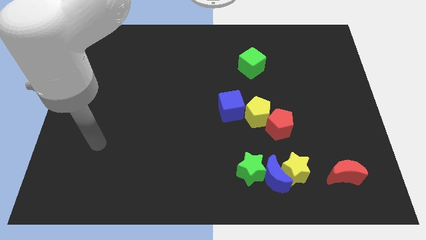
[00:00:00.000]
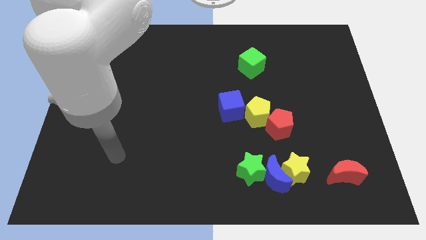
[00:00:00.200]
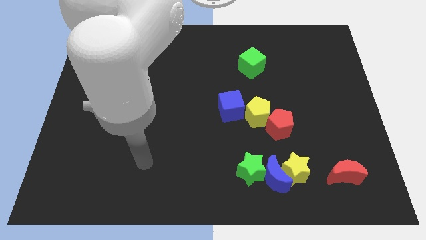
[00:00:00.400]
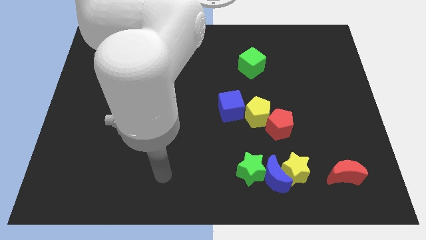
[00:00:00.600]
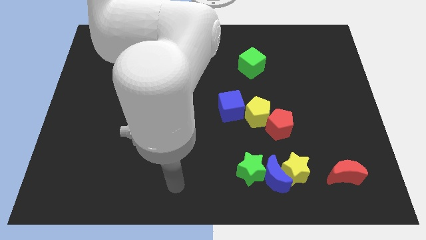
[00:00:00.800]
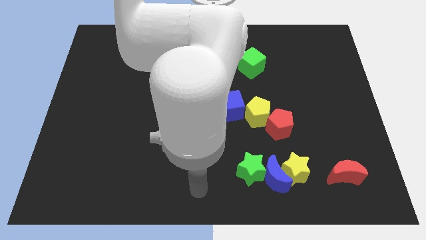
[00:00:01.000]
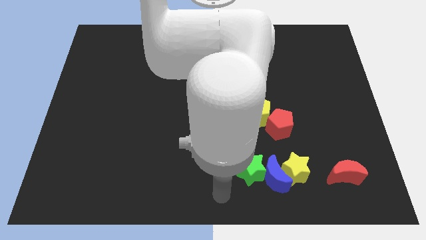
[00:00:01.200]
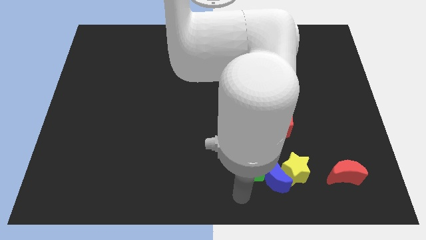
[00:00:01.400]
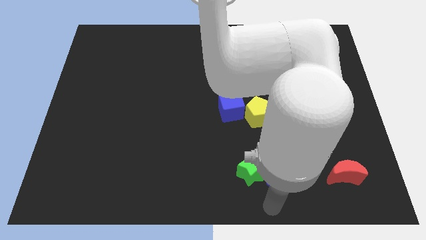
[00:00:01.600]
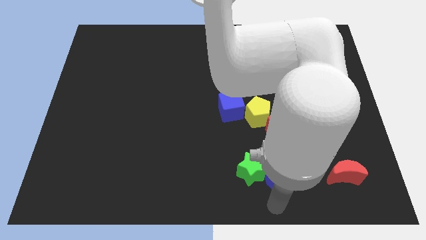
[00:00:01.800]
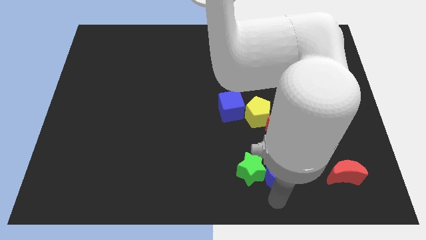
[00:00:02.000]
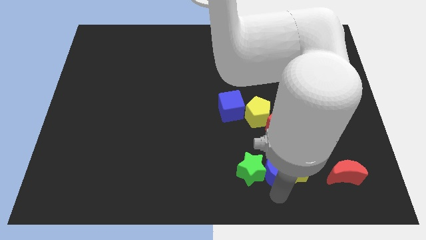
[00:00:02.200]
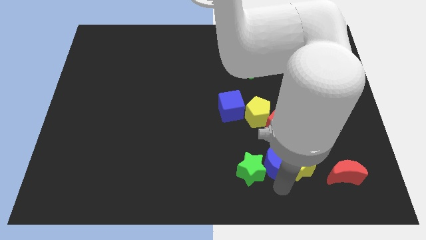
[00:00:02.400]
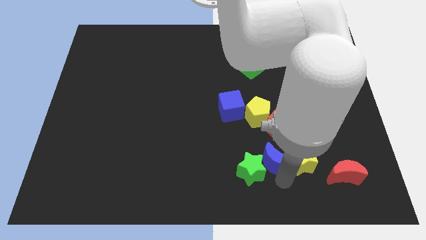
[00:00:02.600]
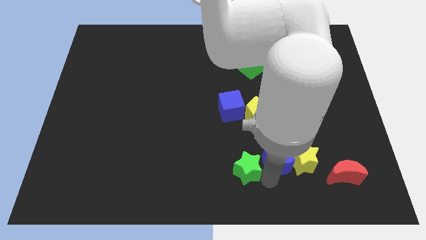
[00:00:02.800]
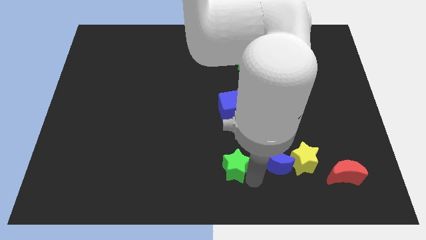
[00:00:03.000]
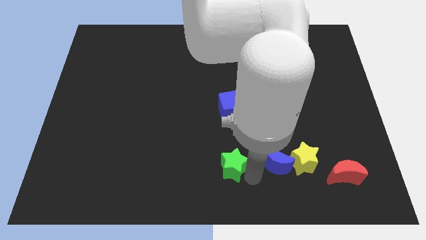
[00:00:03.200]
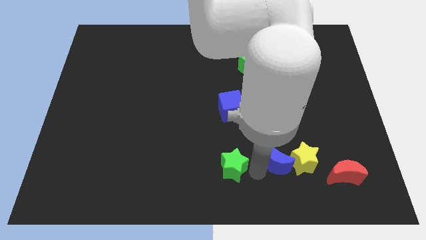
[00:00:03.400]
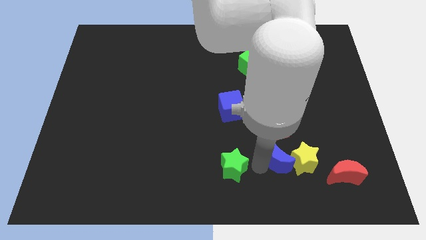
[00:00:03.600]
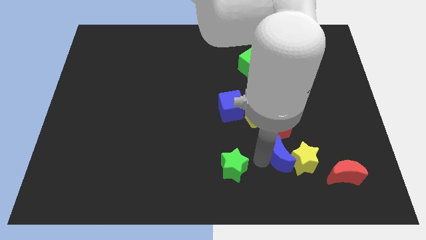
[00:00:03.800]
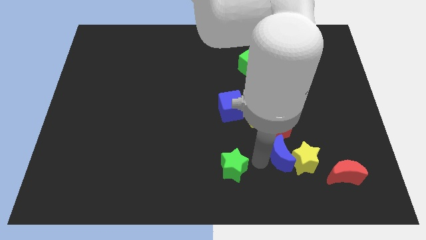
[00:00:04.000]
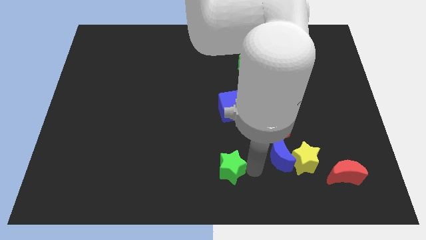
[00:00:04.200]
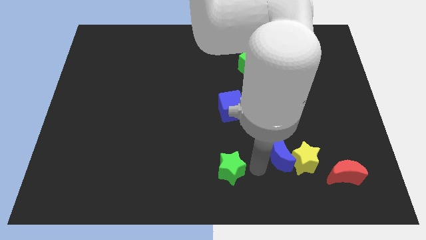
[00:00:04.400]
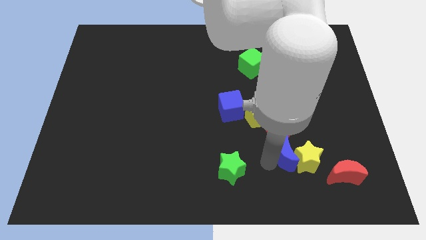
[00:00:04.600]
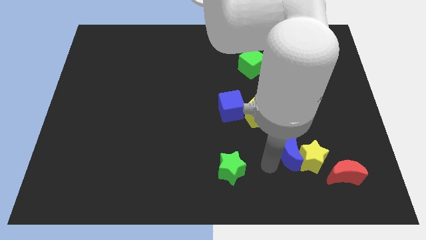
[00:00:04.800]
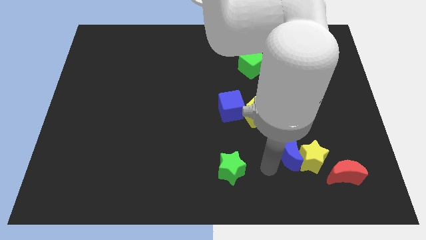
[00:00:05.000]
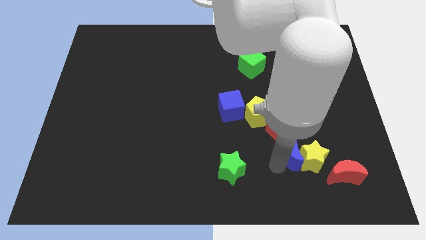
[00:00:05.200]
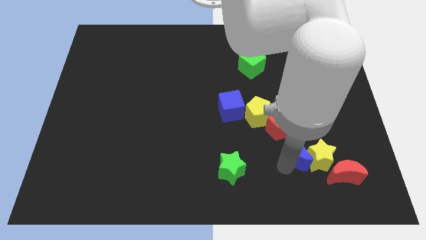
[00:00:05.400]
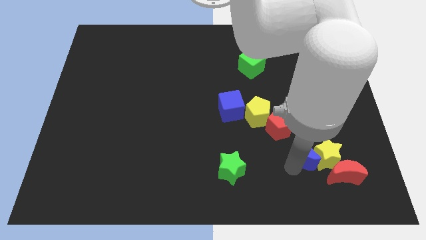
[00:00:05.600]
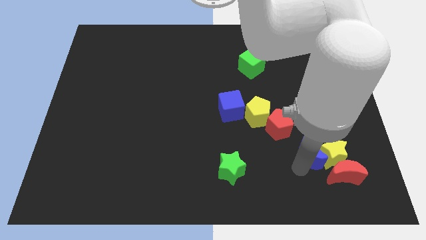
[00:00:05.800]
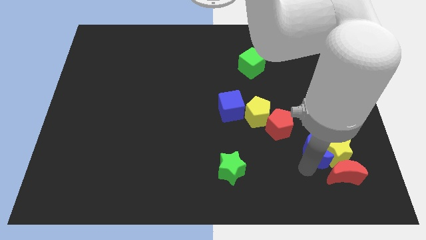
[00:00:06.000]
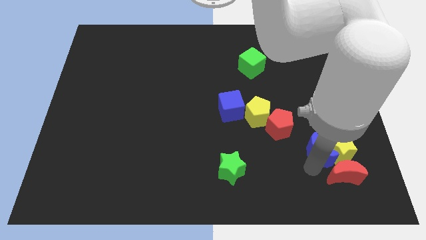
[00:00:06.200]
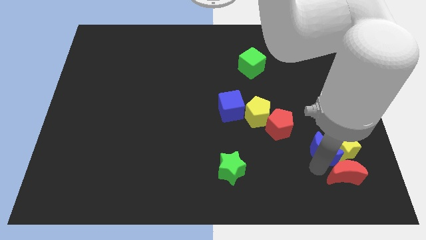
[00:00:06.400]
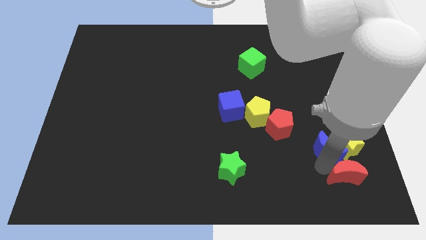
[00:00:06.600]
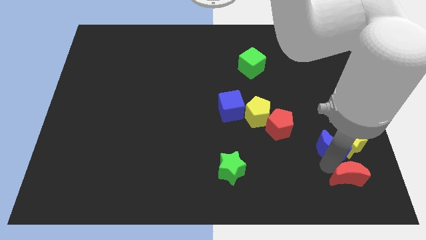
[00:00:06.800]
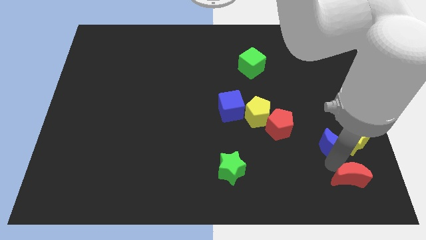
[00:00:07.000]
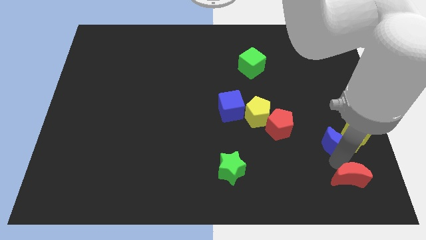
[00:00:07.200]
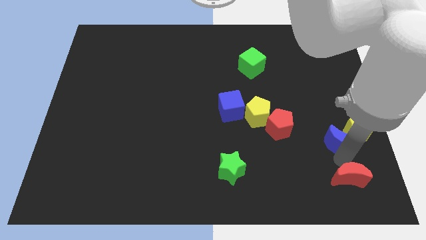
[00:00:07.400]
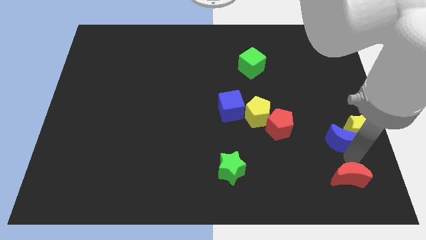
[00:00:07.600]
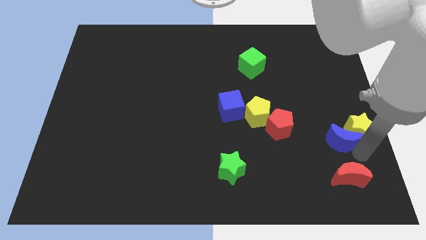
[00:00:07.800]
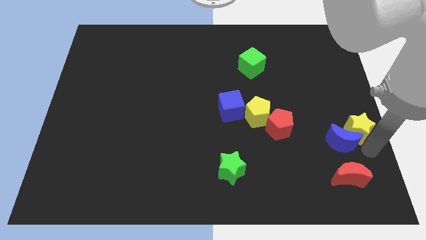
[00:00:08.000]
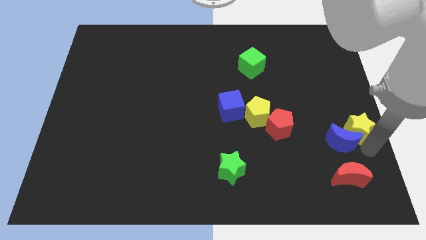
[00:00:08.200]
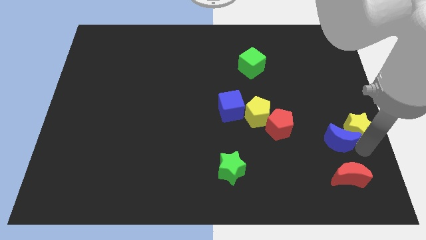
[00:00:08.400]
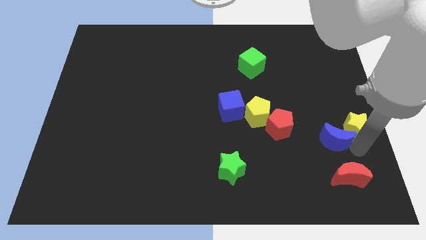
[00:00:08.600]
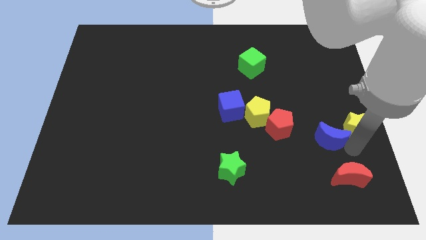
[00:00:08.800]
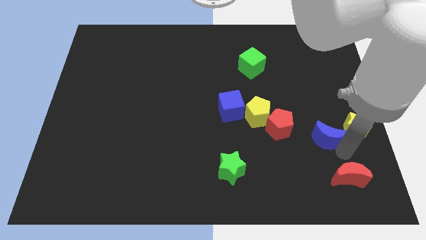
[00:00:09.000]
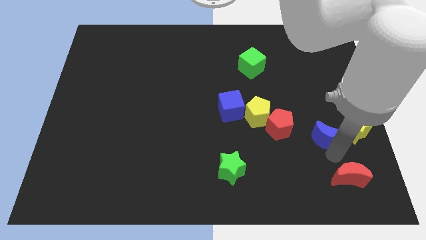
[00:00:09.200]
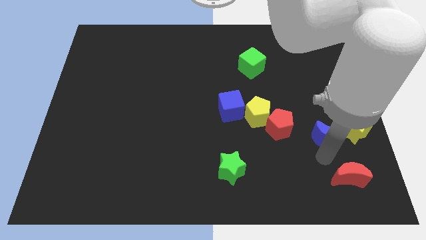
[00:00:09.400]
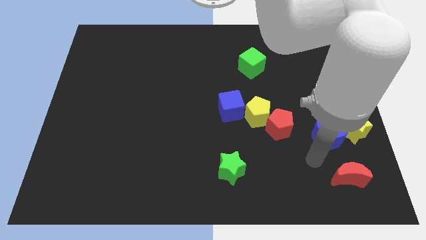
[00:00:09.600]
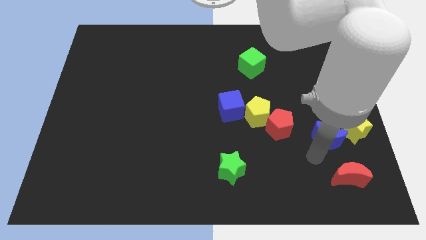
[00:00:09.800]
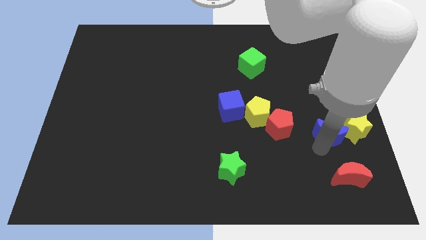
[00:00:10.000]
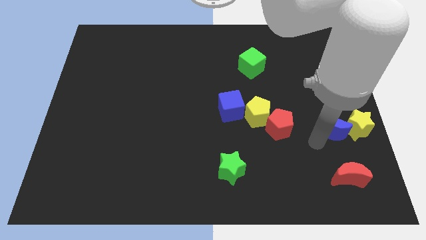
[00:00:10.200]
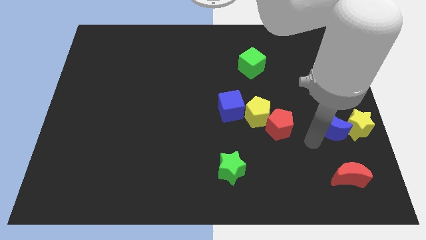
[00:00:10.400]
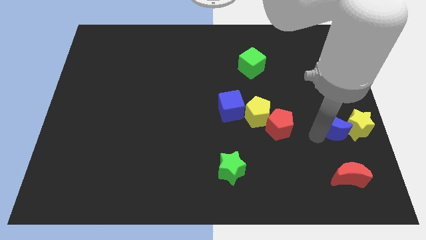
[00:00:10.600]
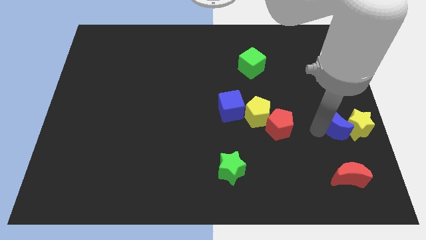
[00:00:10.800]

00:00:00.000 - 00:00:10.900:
slide the blue moon to the center right
